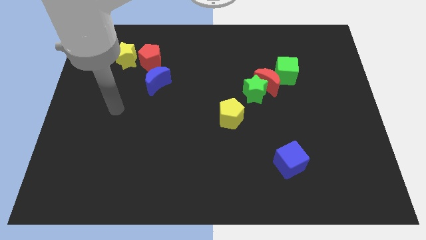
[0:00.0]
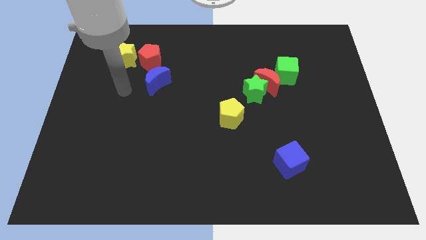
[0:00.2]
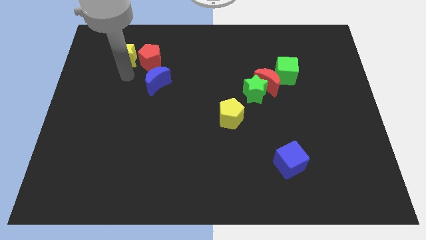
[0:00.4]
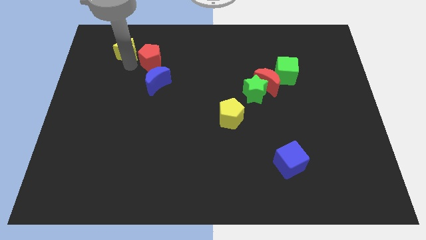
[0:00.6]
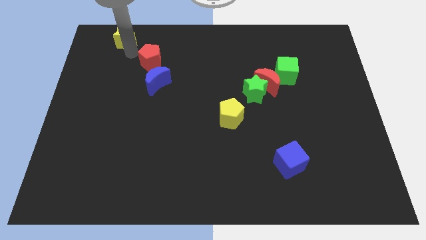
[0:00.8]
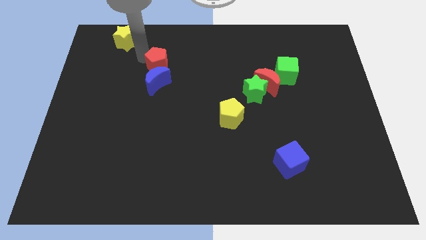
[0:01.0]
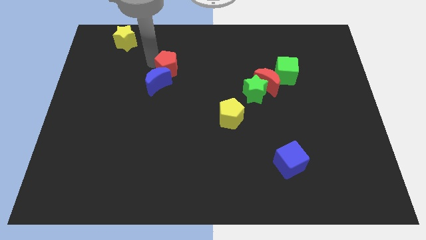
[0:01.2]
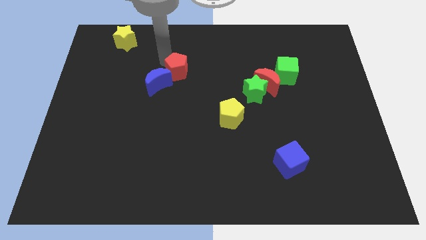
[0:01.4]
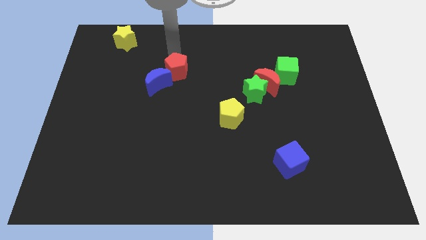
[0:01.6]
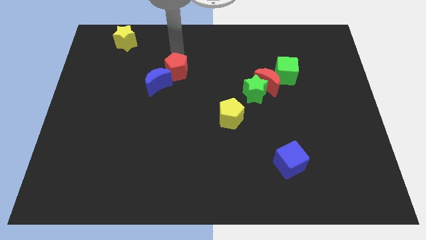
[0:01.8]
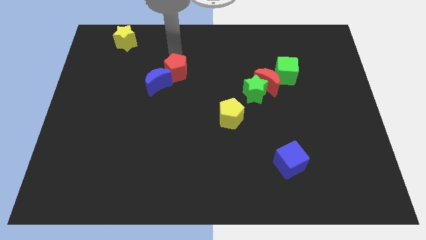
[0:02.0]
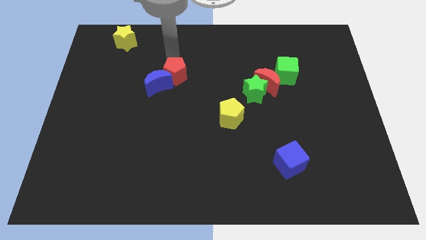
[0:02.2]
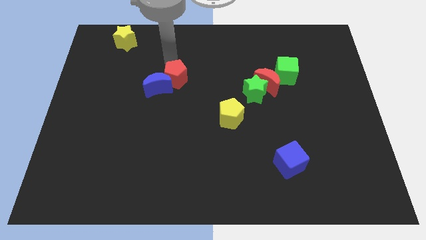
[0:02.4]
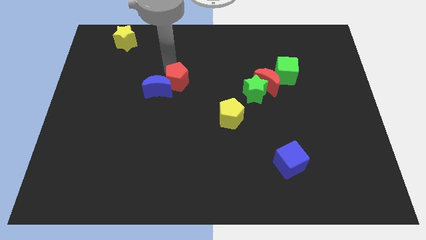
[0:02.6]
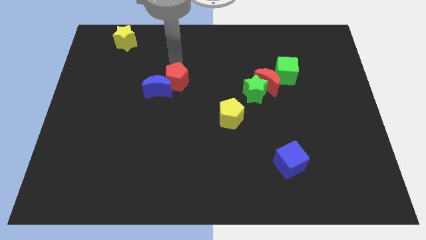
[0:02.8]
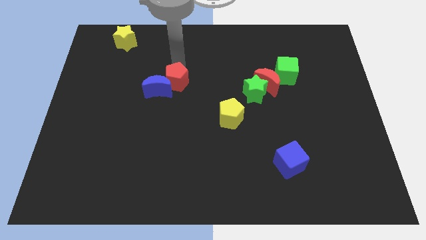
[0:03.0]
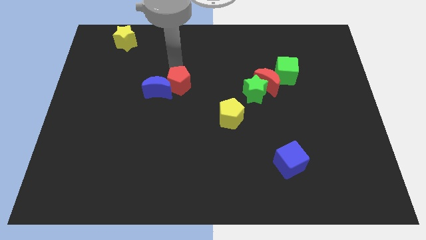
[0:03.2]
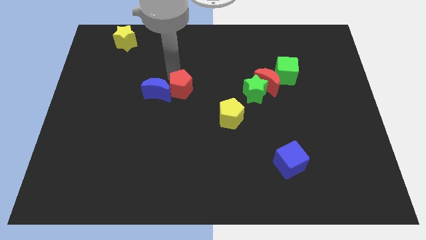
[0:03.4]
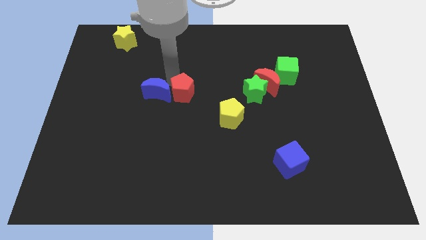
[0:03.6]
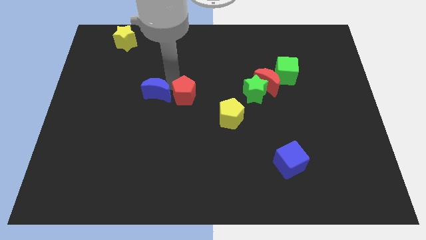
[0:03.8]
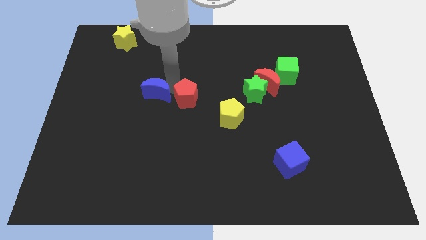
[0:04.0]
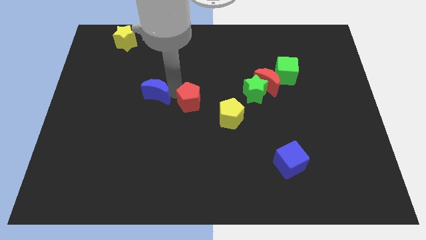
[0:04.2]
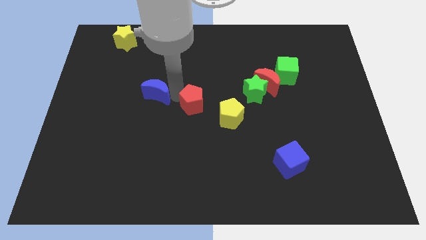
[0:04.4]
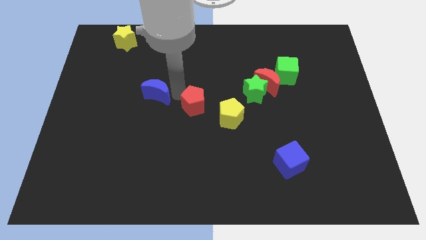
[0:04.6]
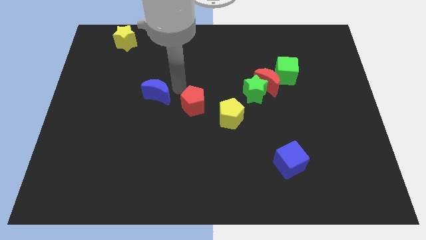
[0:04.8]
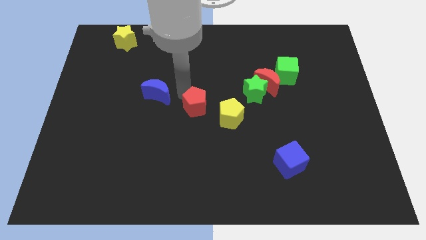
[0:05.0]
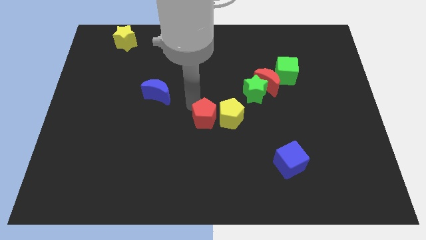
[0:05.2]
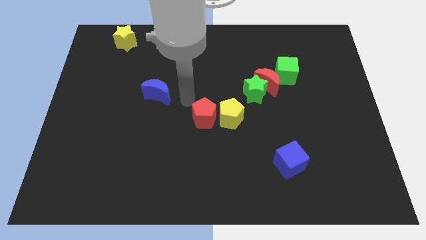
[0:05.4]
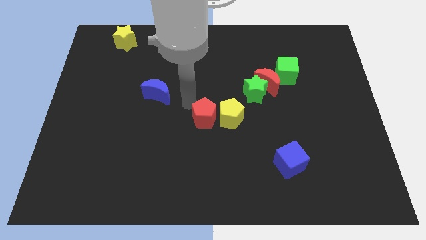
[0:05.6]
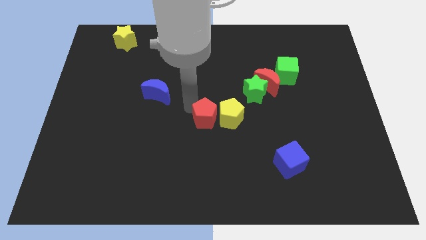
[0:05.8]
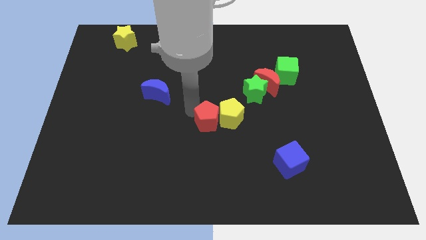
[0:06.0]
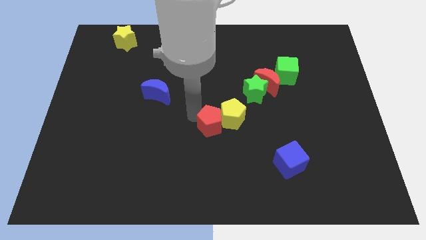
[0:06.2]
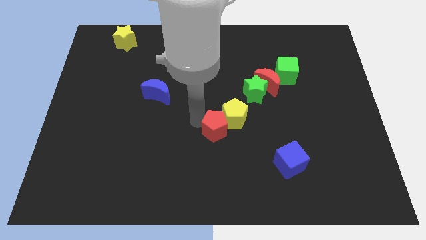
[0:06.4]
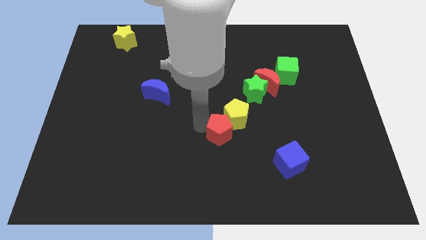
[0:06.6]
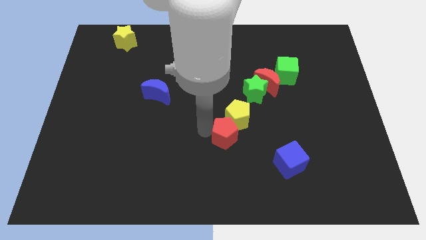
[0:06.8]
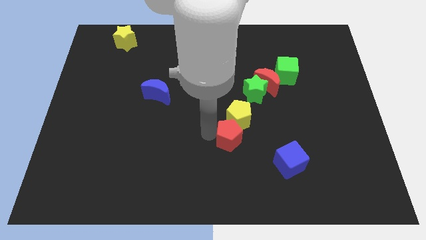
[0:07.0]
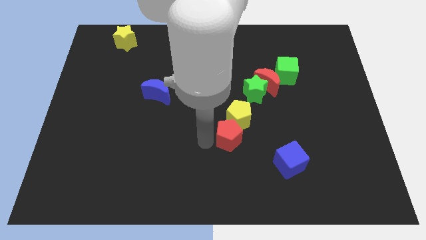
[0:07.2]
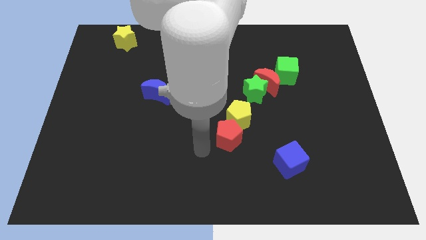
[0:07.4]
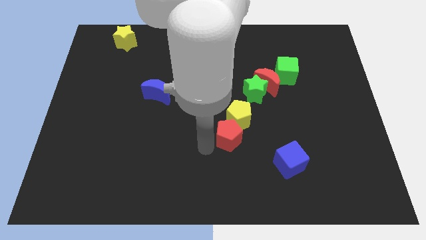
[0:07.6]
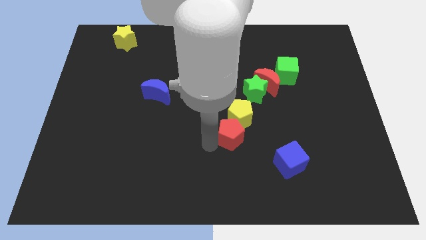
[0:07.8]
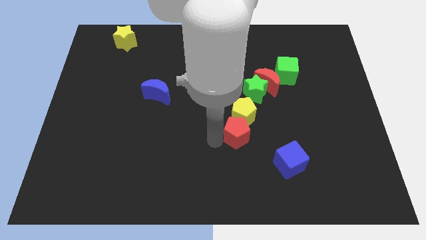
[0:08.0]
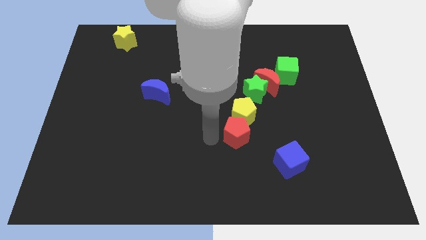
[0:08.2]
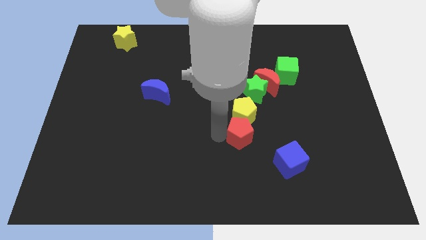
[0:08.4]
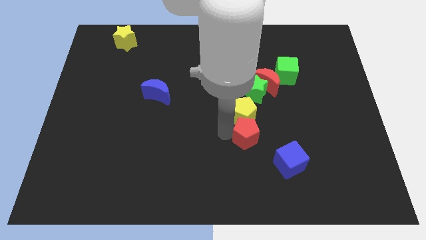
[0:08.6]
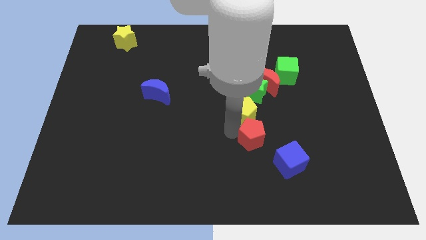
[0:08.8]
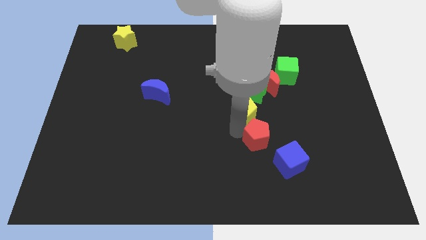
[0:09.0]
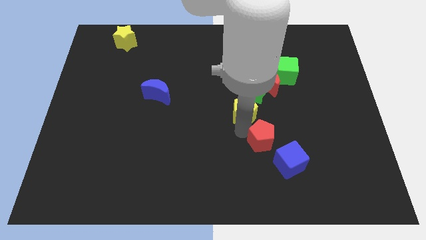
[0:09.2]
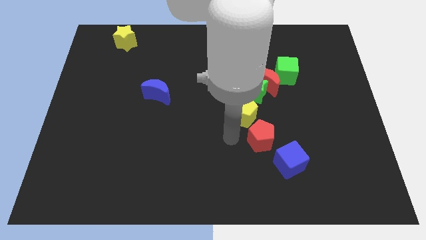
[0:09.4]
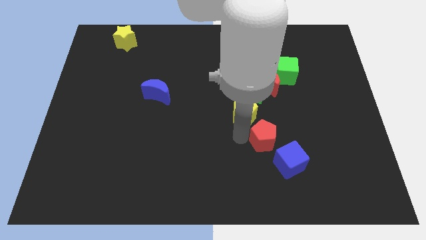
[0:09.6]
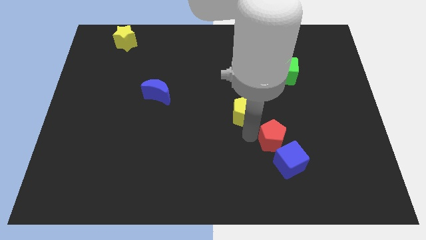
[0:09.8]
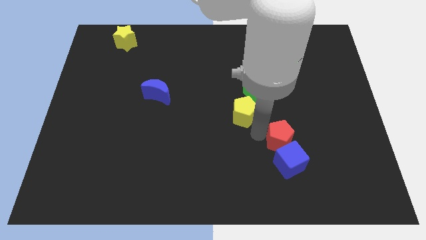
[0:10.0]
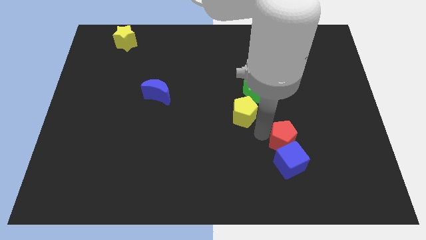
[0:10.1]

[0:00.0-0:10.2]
push the red pentagon to the top right of the blue cube

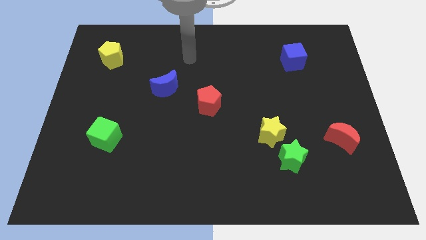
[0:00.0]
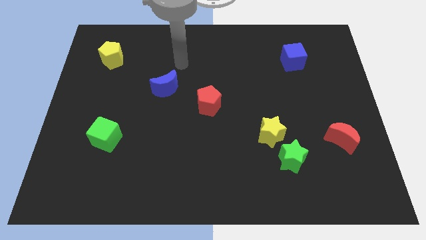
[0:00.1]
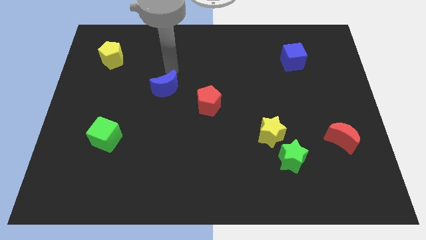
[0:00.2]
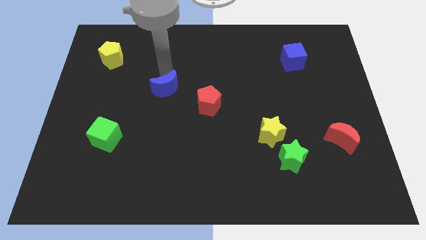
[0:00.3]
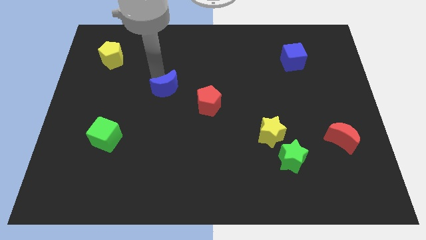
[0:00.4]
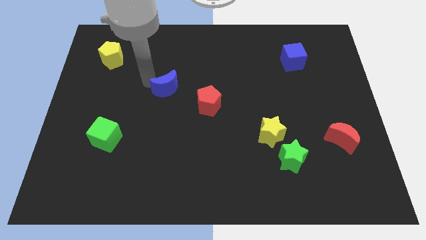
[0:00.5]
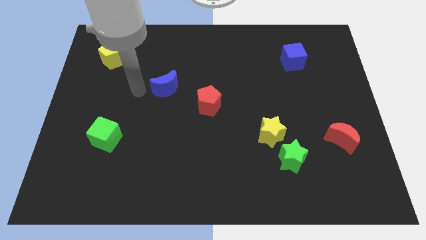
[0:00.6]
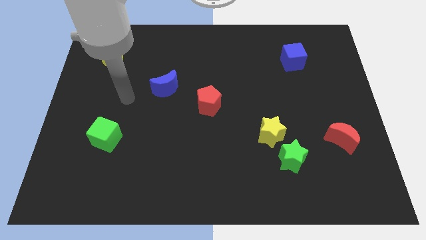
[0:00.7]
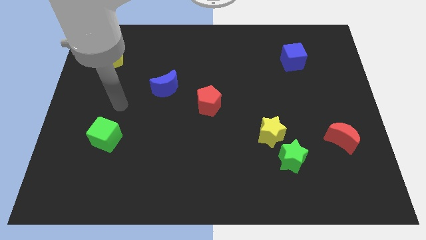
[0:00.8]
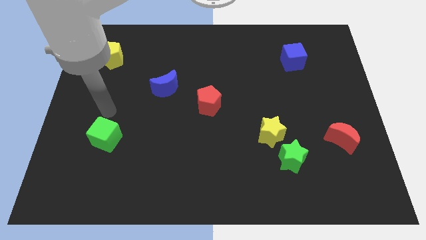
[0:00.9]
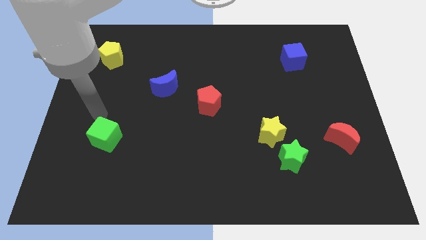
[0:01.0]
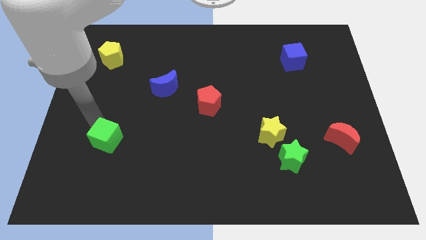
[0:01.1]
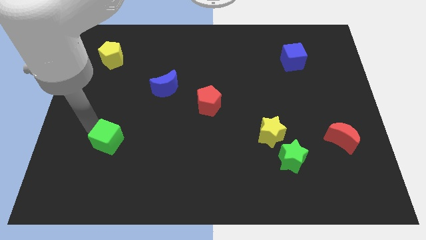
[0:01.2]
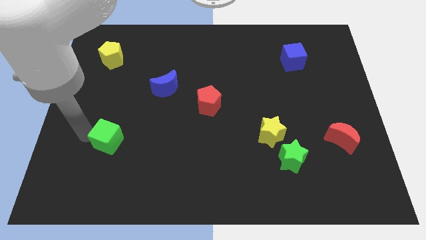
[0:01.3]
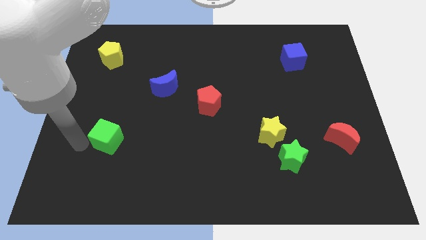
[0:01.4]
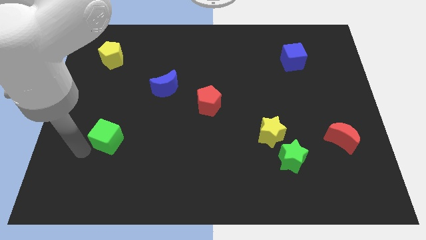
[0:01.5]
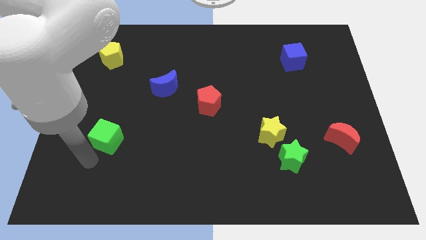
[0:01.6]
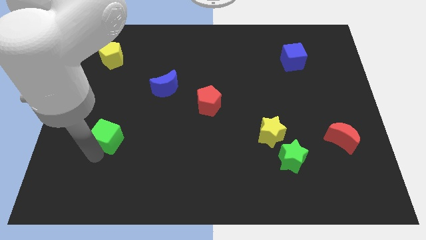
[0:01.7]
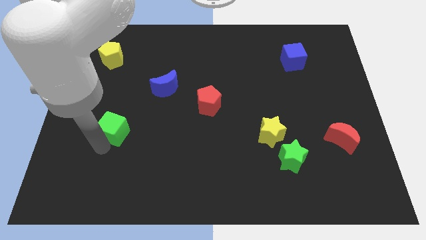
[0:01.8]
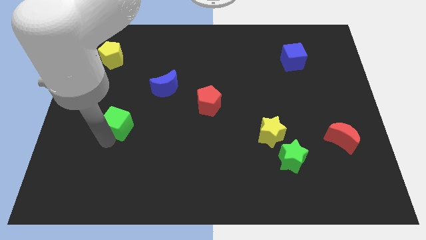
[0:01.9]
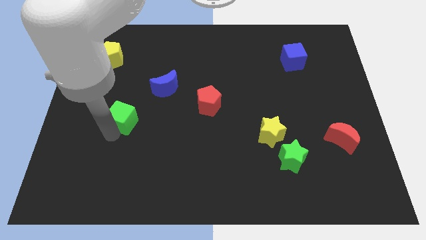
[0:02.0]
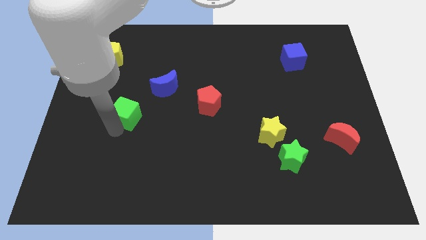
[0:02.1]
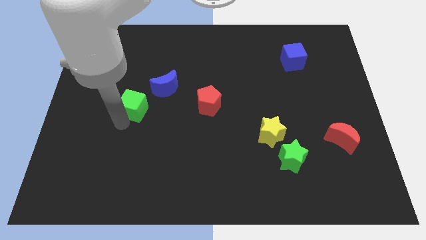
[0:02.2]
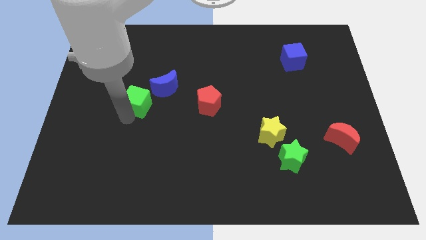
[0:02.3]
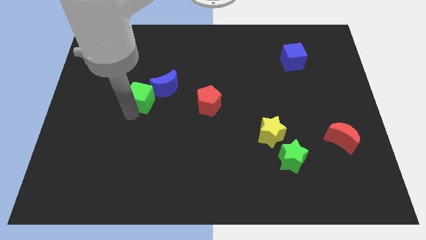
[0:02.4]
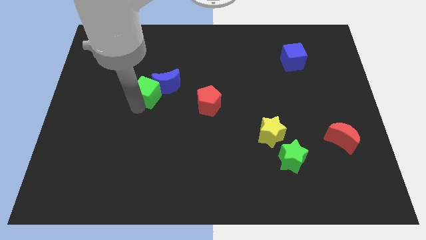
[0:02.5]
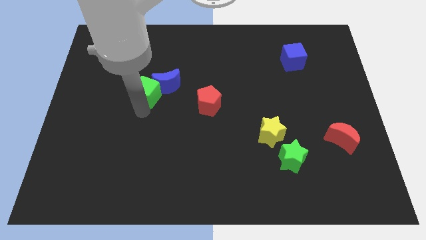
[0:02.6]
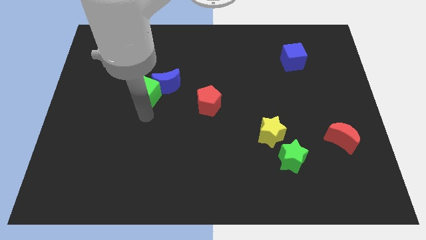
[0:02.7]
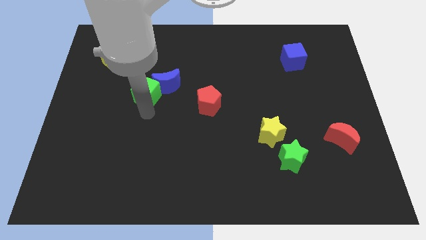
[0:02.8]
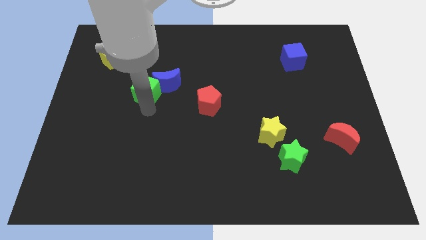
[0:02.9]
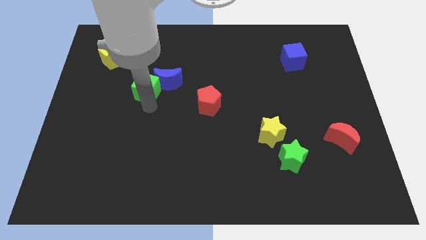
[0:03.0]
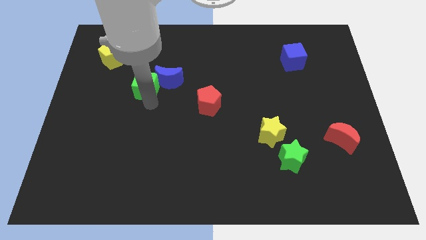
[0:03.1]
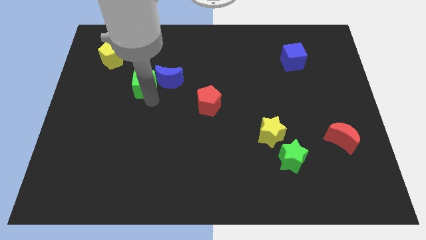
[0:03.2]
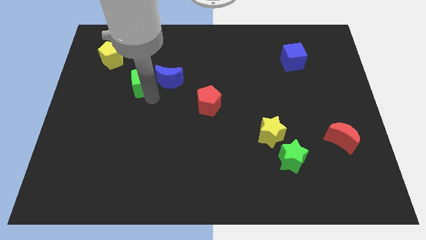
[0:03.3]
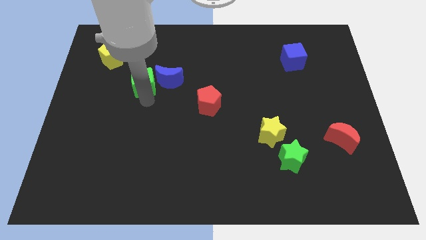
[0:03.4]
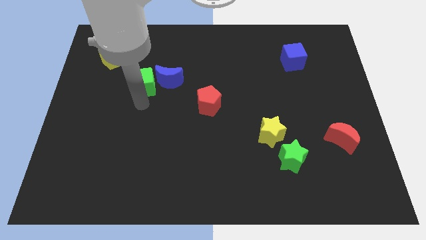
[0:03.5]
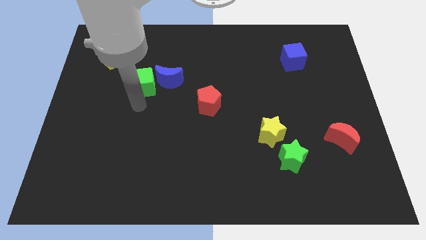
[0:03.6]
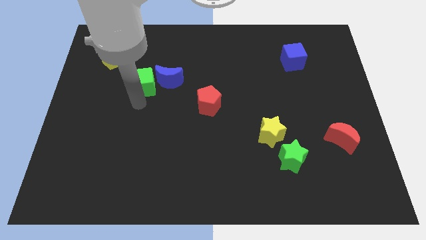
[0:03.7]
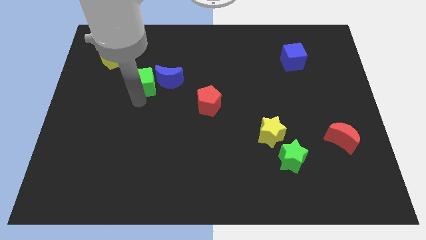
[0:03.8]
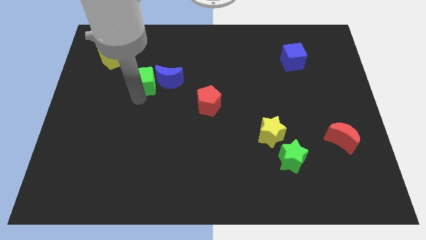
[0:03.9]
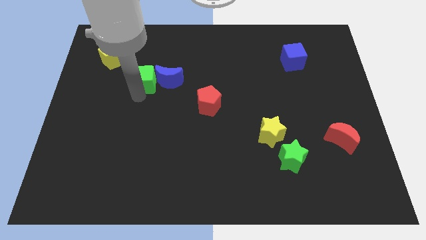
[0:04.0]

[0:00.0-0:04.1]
move the green cube to the top left of the blue moon
